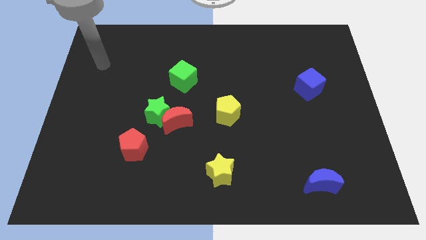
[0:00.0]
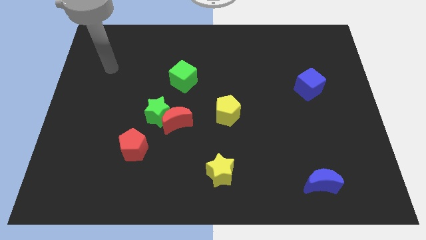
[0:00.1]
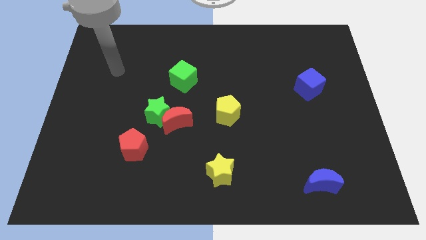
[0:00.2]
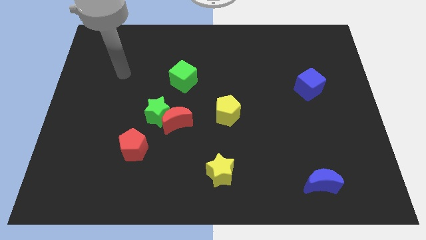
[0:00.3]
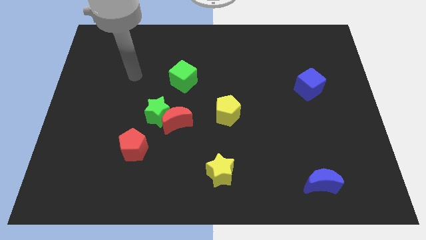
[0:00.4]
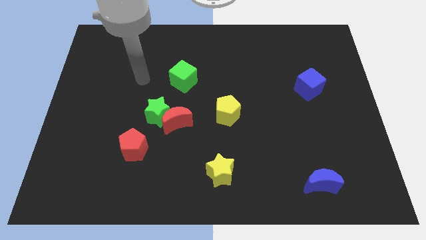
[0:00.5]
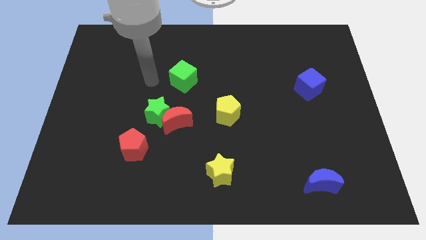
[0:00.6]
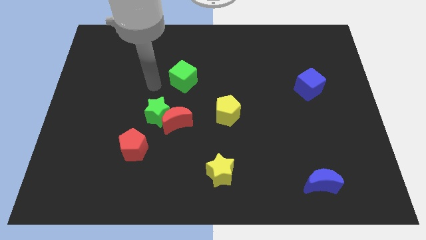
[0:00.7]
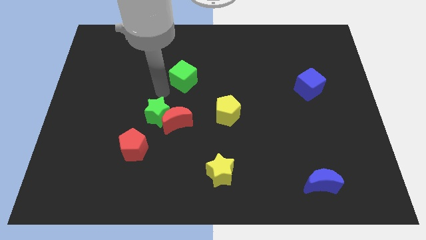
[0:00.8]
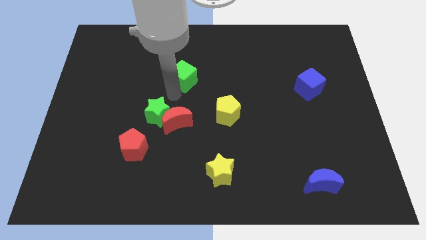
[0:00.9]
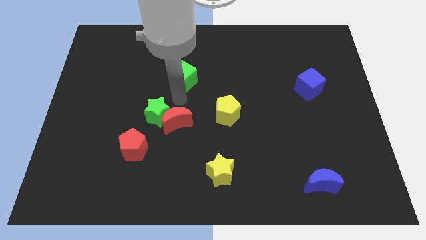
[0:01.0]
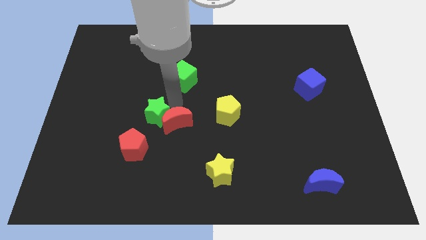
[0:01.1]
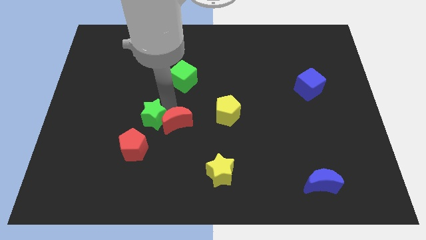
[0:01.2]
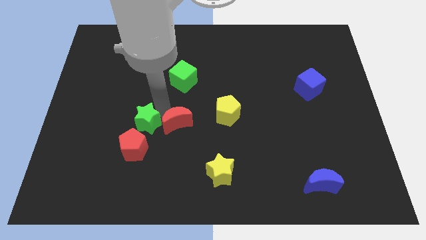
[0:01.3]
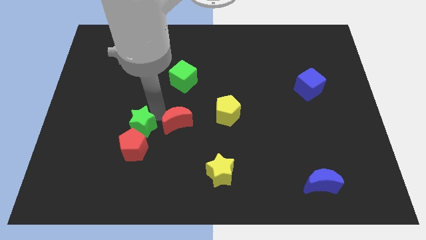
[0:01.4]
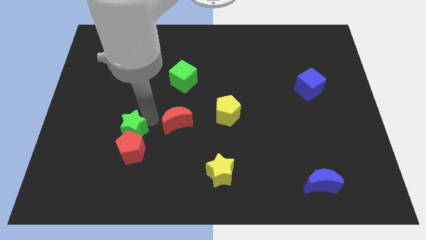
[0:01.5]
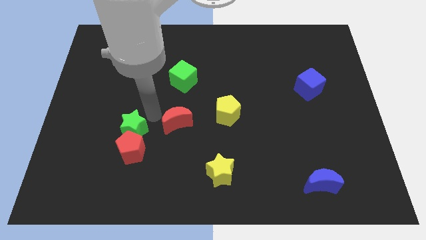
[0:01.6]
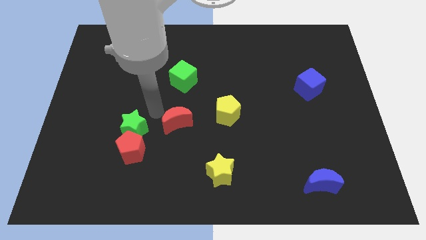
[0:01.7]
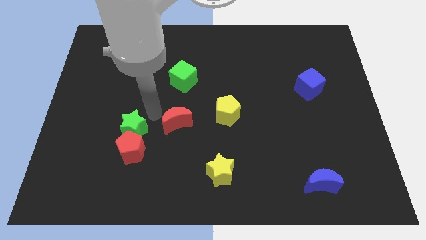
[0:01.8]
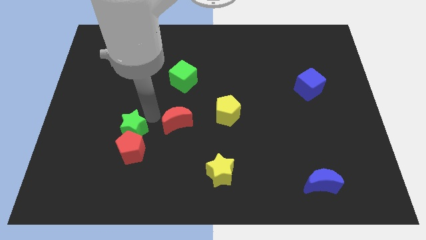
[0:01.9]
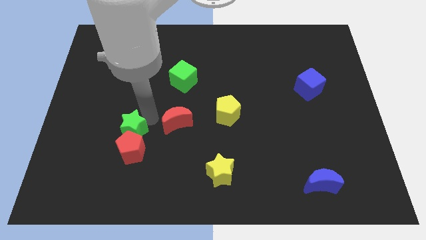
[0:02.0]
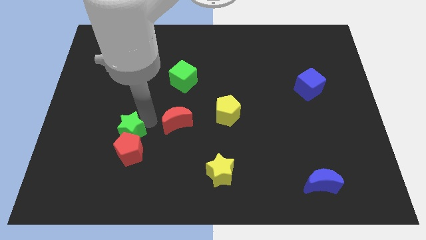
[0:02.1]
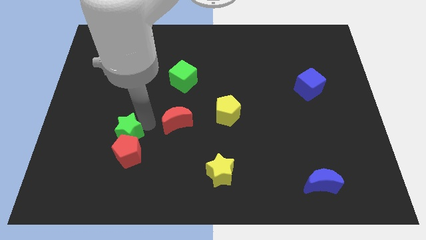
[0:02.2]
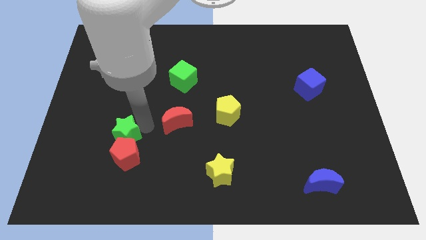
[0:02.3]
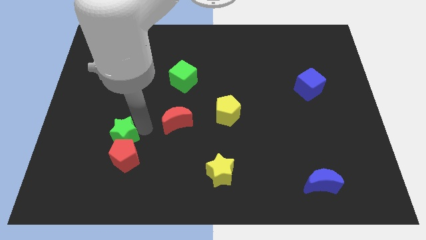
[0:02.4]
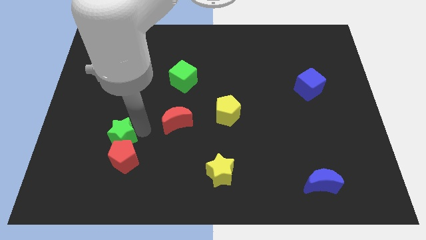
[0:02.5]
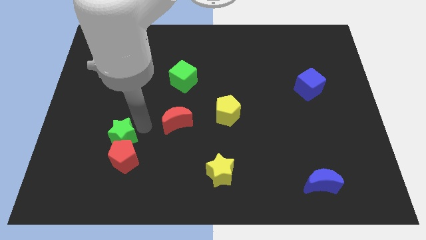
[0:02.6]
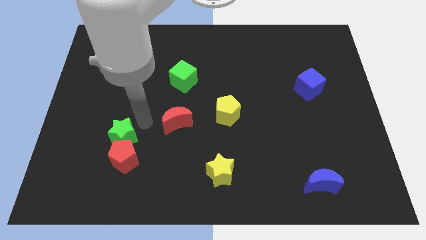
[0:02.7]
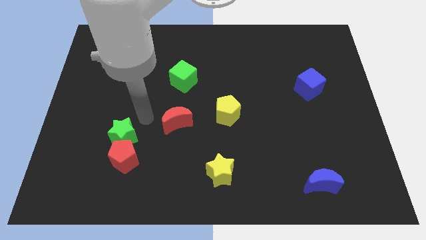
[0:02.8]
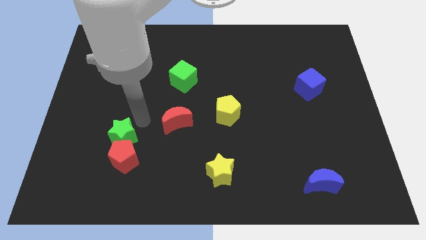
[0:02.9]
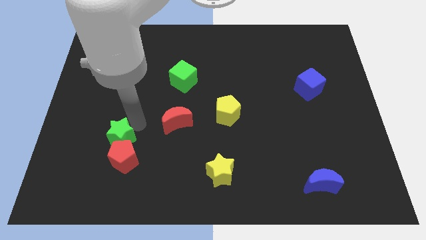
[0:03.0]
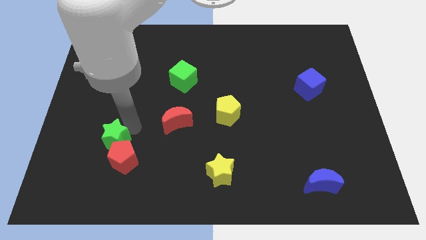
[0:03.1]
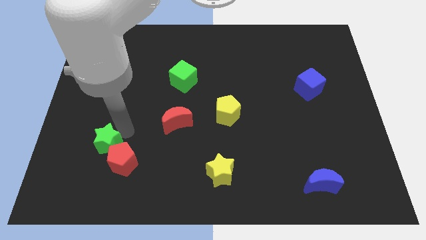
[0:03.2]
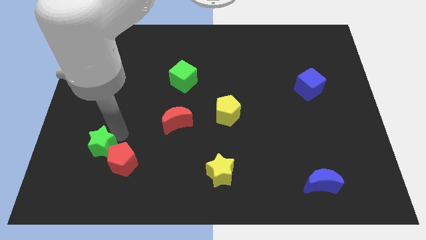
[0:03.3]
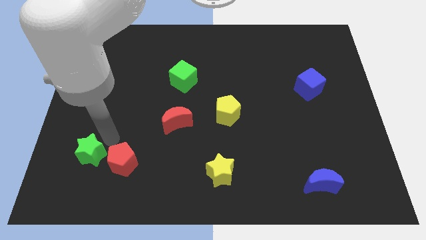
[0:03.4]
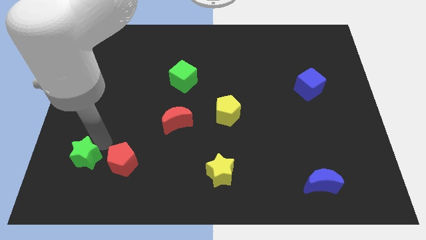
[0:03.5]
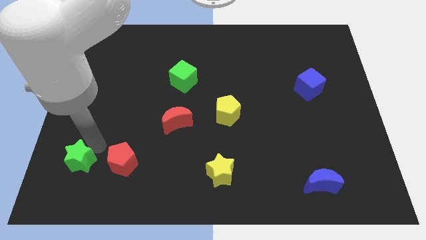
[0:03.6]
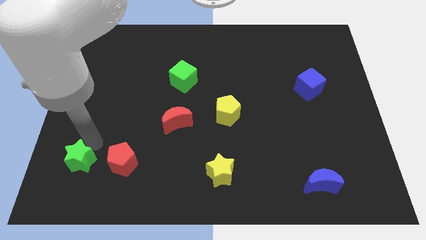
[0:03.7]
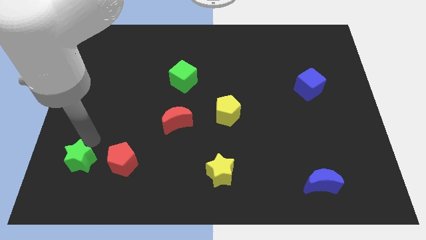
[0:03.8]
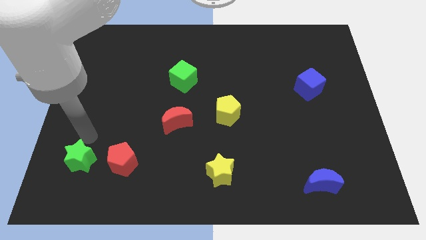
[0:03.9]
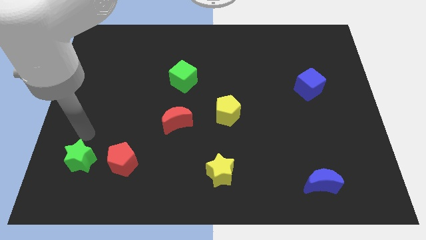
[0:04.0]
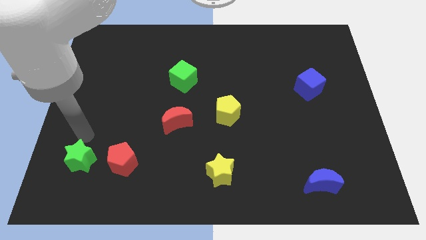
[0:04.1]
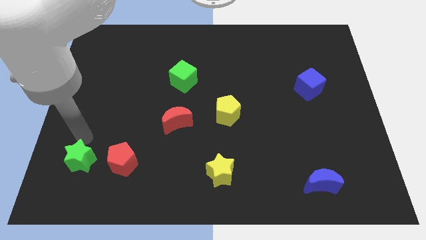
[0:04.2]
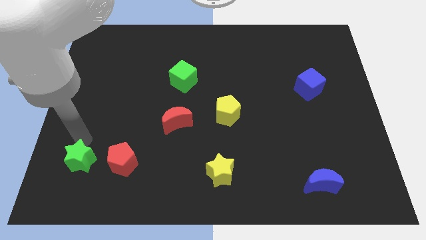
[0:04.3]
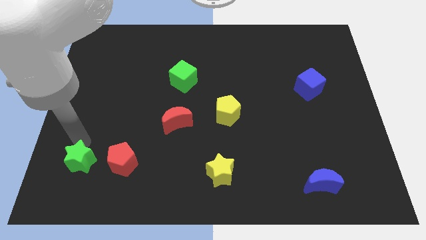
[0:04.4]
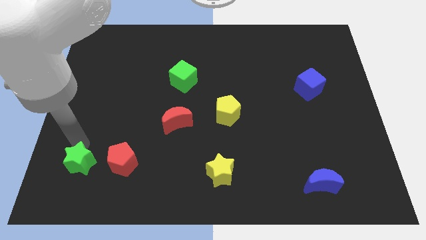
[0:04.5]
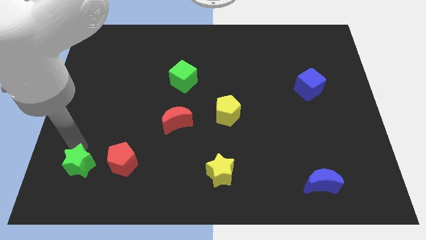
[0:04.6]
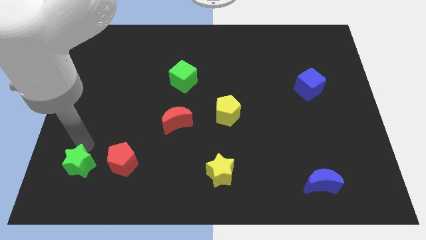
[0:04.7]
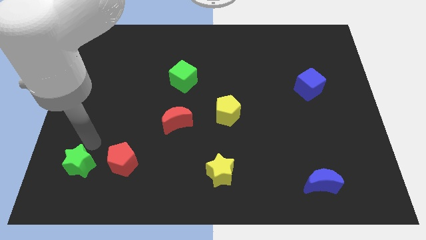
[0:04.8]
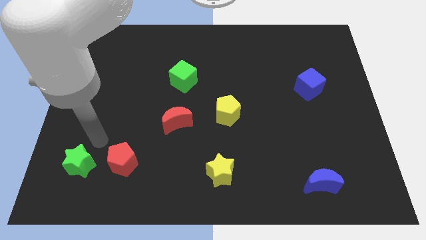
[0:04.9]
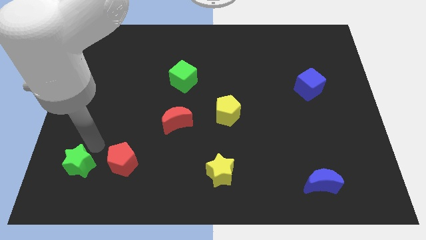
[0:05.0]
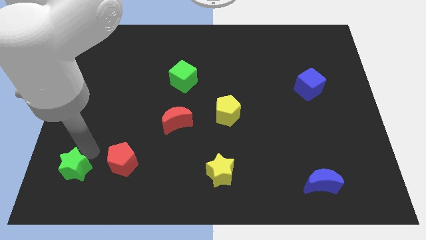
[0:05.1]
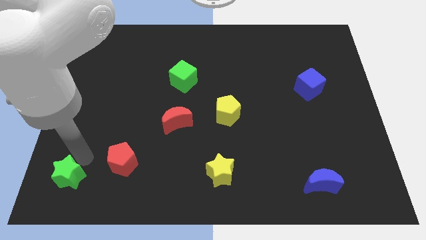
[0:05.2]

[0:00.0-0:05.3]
move the green star to the bottom left corner

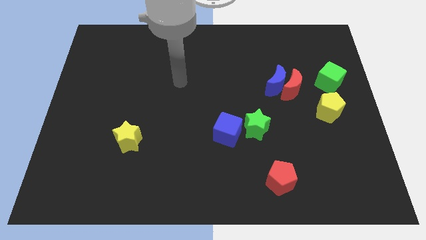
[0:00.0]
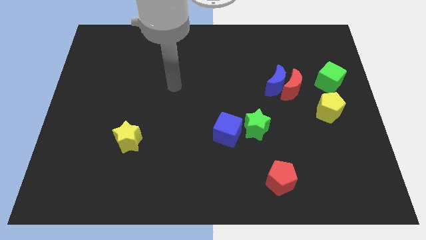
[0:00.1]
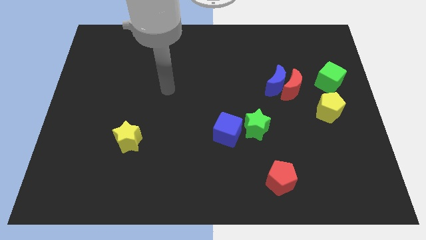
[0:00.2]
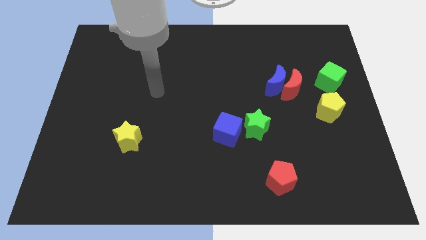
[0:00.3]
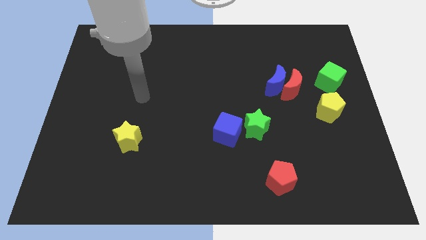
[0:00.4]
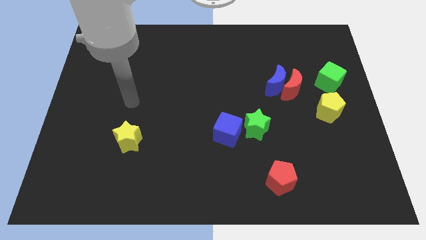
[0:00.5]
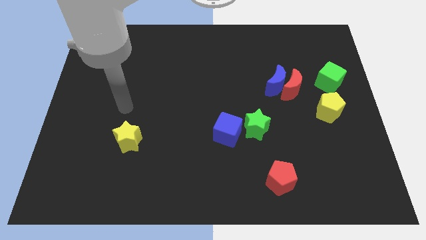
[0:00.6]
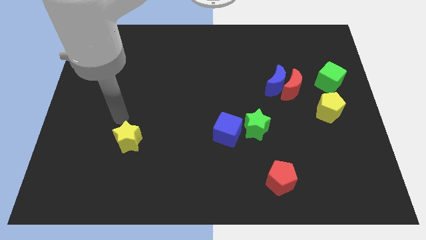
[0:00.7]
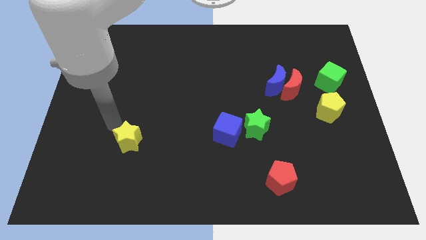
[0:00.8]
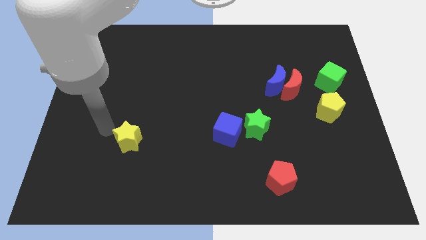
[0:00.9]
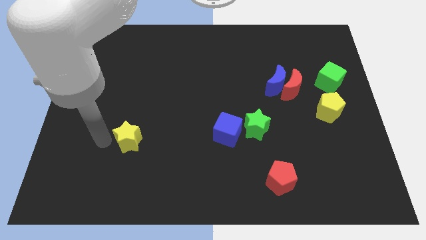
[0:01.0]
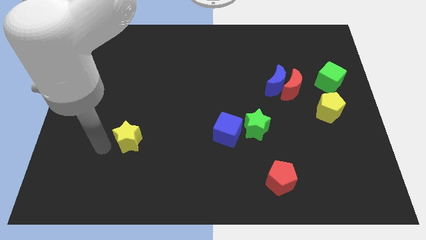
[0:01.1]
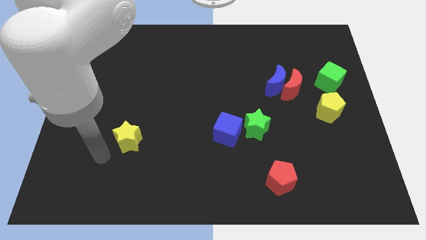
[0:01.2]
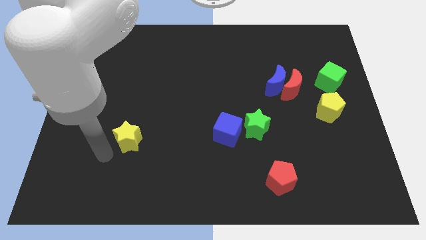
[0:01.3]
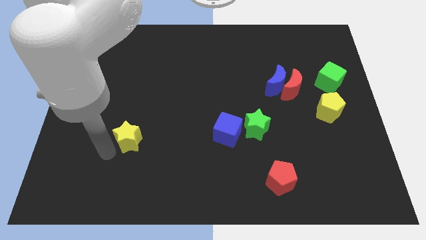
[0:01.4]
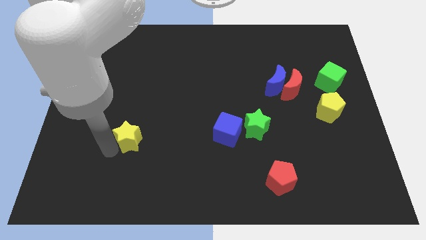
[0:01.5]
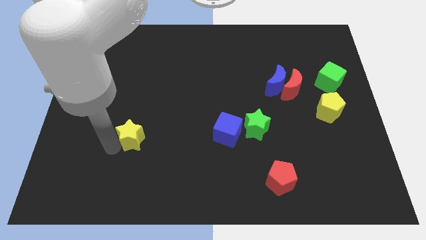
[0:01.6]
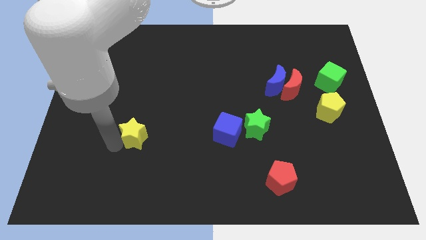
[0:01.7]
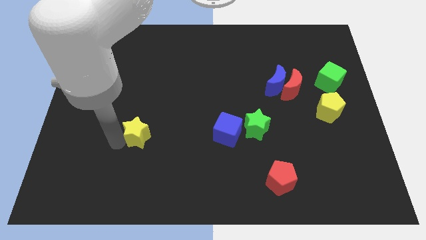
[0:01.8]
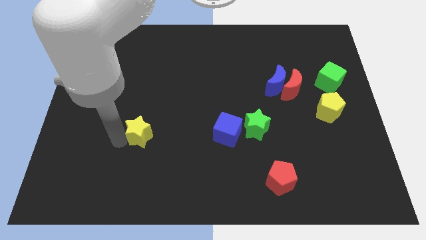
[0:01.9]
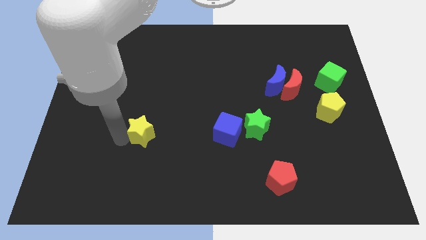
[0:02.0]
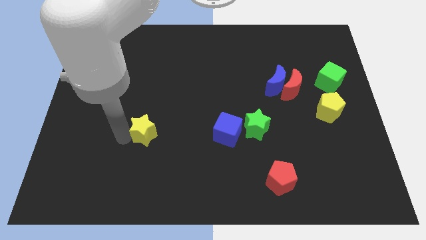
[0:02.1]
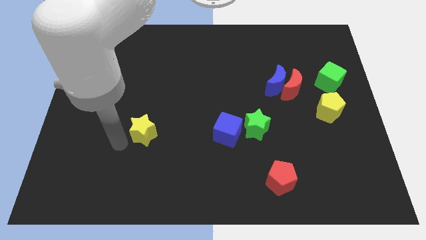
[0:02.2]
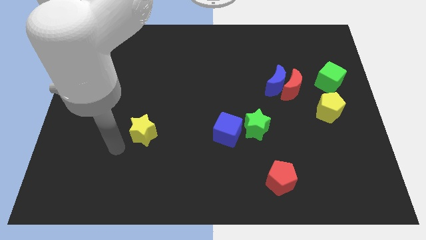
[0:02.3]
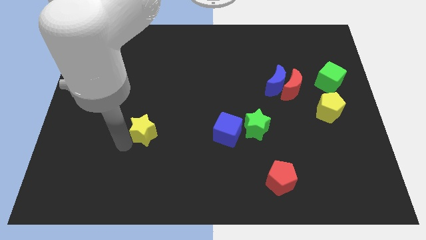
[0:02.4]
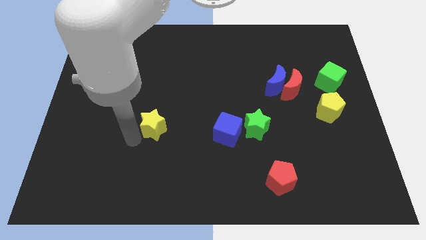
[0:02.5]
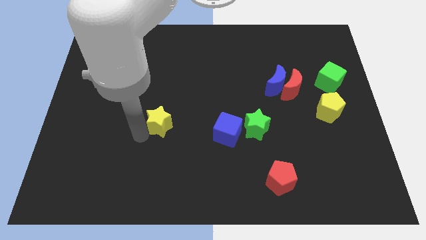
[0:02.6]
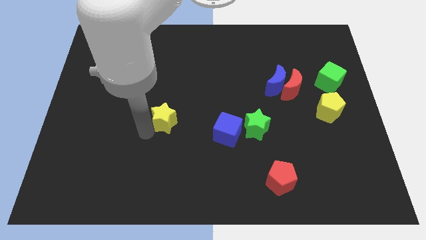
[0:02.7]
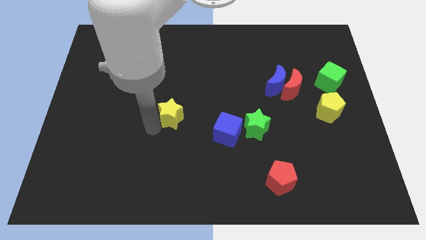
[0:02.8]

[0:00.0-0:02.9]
move the yellow star to the middle
